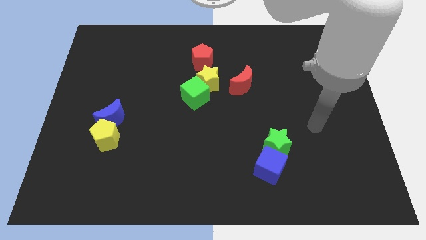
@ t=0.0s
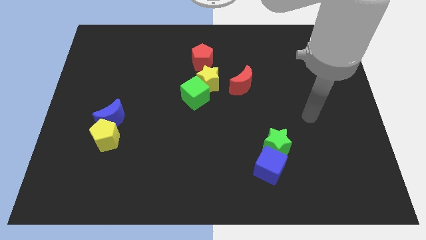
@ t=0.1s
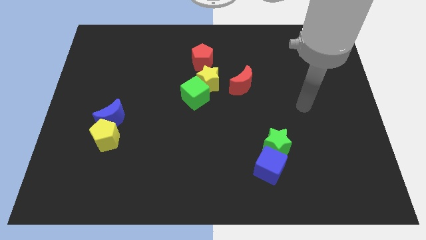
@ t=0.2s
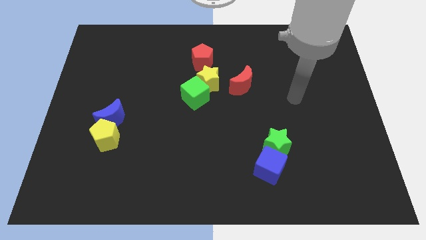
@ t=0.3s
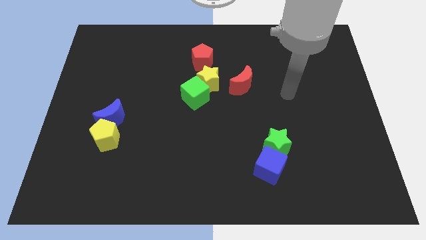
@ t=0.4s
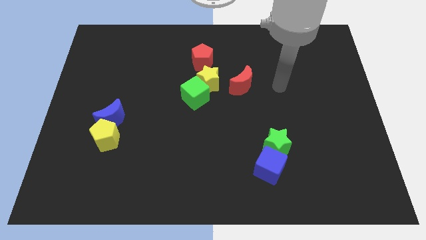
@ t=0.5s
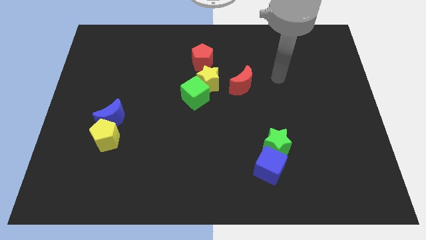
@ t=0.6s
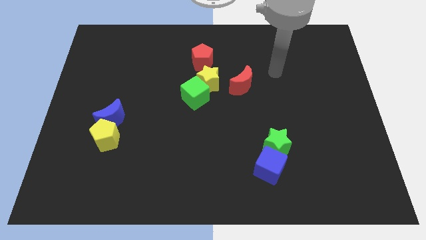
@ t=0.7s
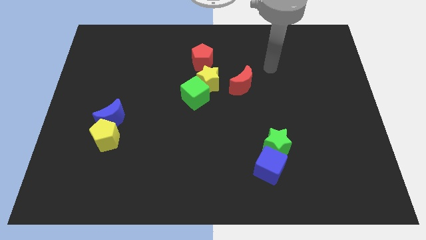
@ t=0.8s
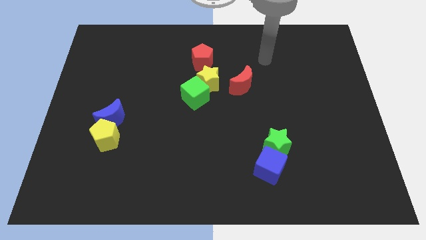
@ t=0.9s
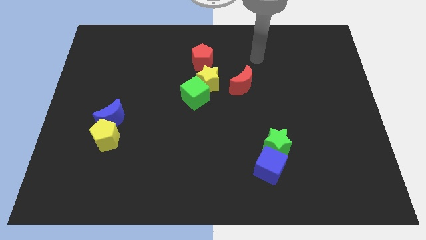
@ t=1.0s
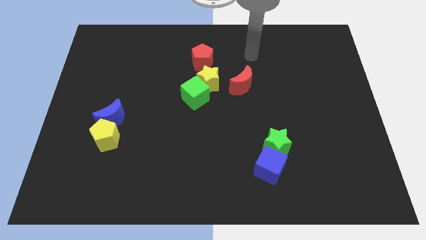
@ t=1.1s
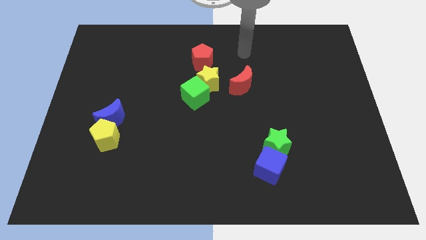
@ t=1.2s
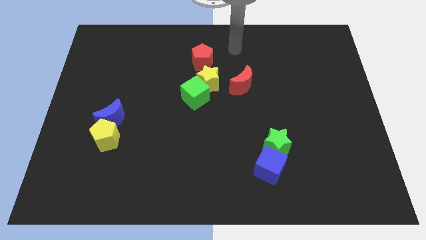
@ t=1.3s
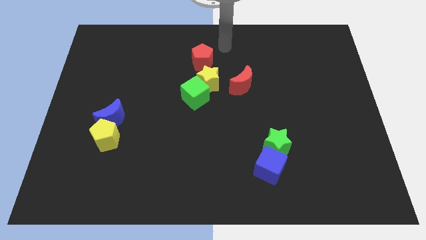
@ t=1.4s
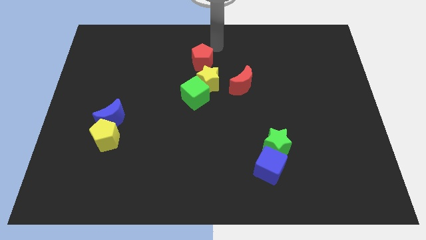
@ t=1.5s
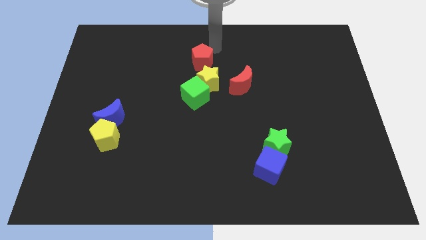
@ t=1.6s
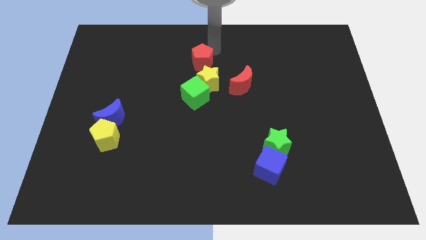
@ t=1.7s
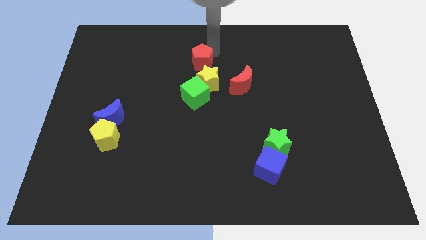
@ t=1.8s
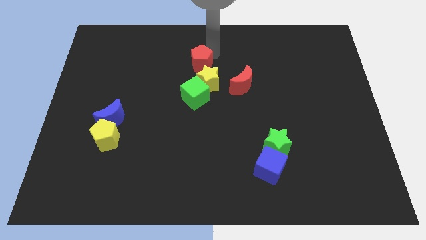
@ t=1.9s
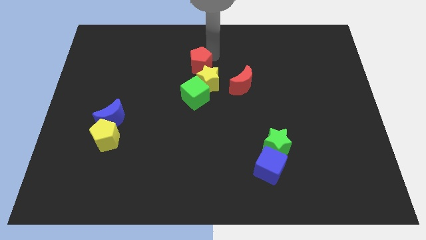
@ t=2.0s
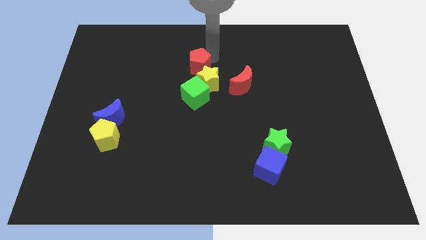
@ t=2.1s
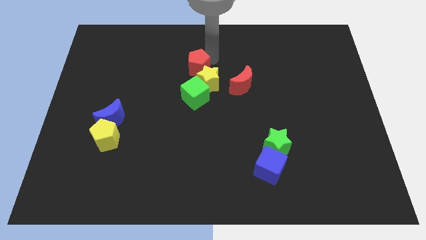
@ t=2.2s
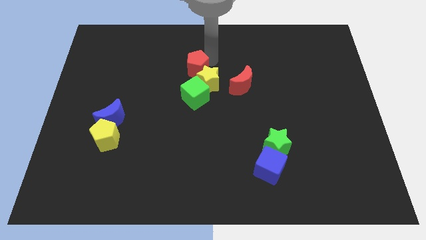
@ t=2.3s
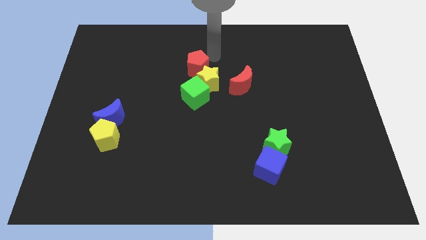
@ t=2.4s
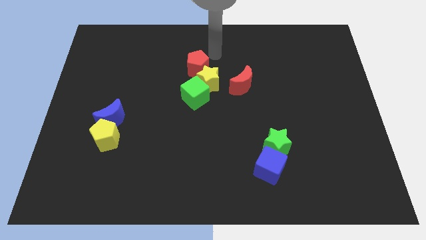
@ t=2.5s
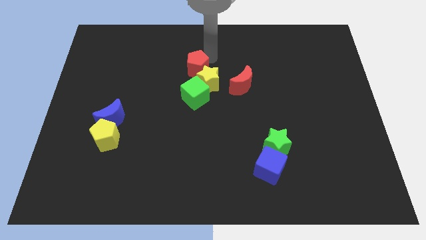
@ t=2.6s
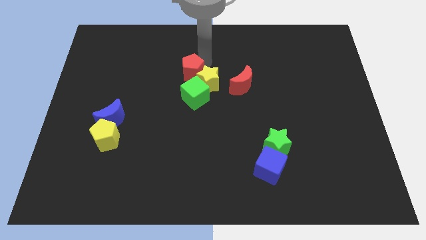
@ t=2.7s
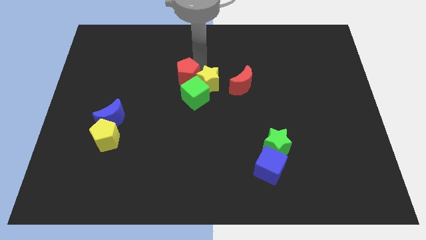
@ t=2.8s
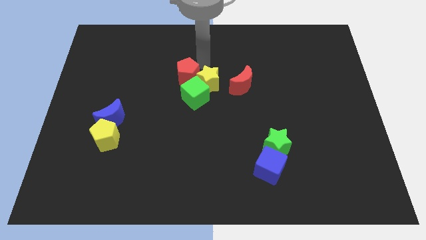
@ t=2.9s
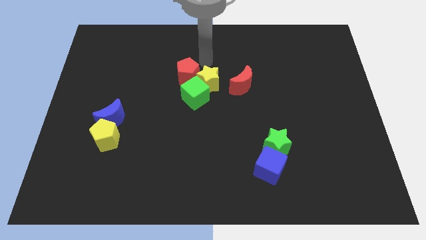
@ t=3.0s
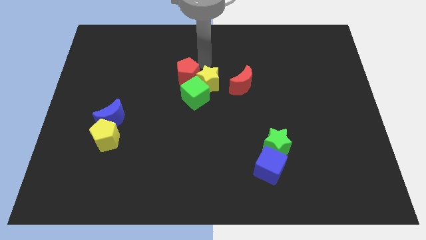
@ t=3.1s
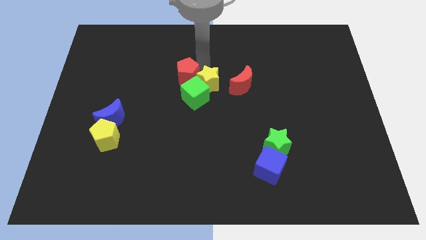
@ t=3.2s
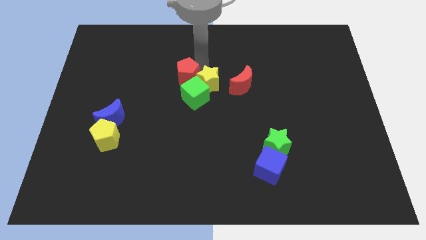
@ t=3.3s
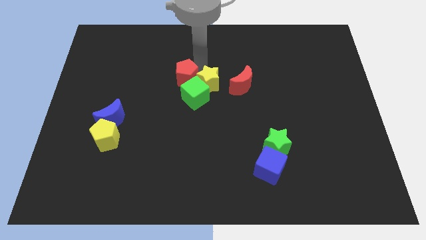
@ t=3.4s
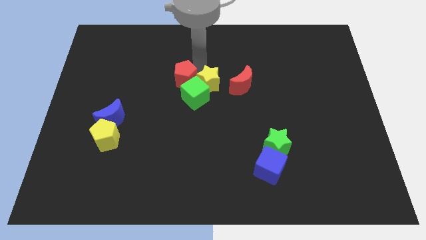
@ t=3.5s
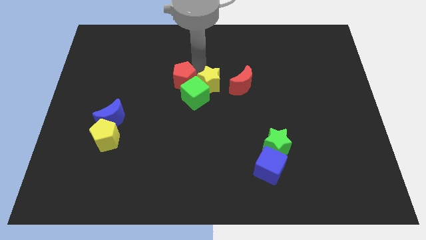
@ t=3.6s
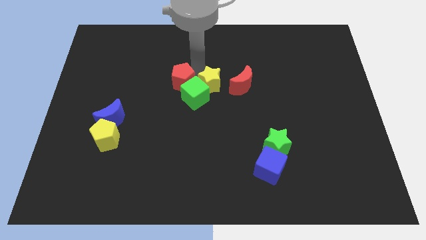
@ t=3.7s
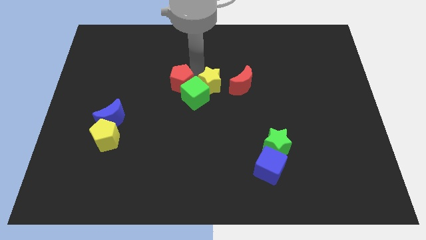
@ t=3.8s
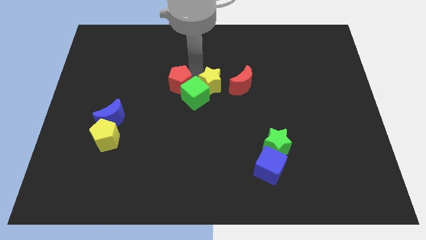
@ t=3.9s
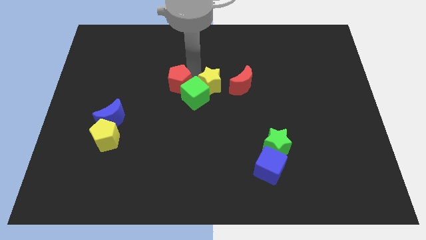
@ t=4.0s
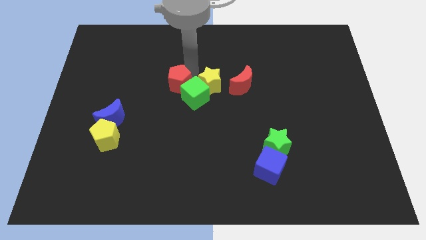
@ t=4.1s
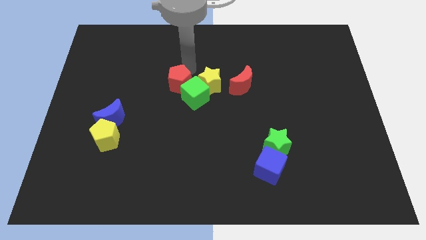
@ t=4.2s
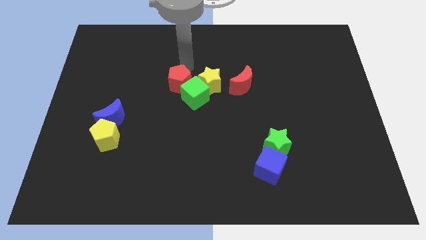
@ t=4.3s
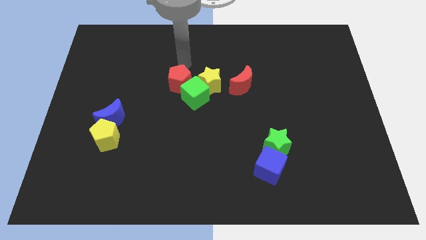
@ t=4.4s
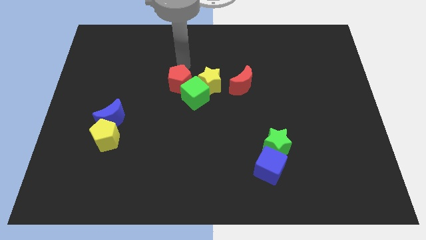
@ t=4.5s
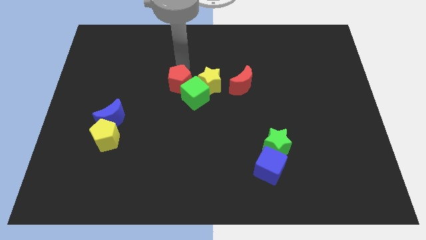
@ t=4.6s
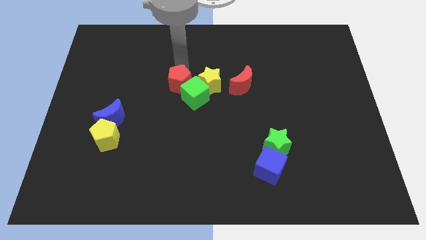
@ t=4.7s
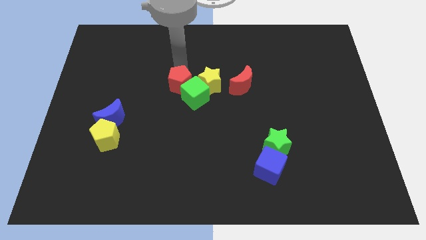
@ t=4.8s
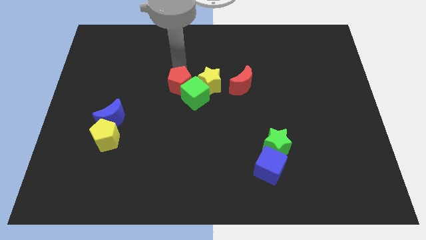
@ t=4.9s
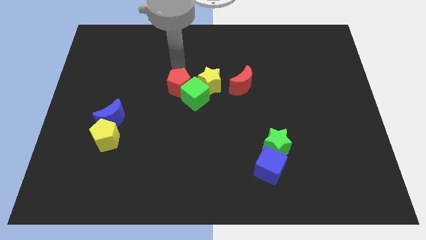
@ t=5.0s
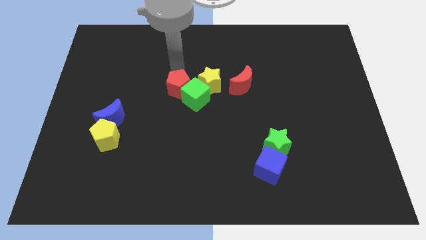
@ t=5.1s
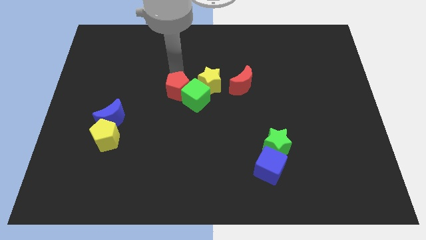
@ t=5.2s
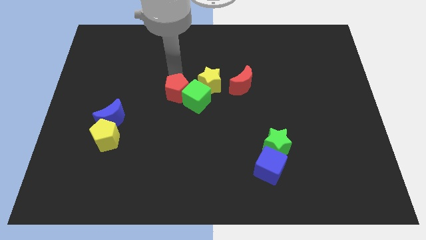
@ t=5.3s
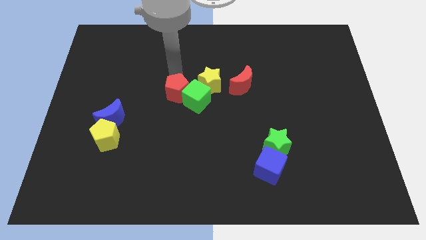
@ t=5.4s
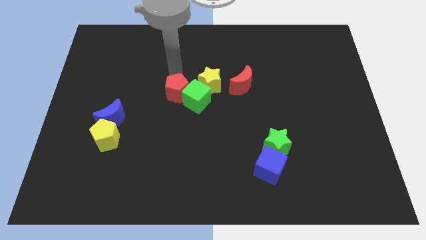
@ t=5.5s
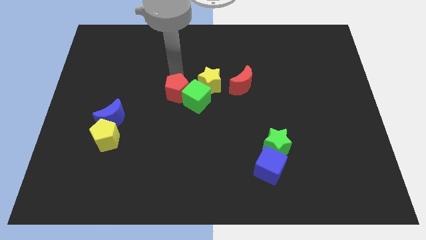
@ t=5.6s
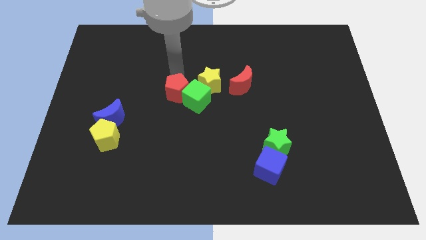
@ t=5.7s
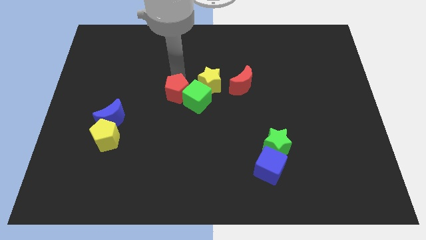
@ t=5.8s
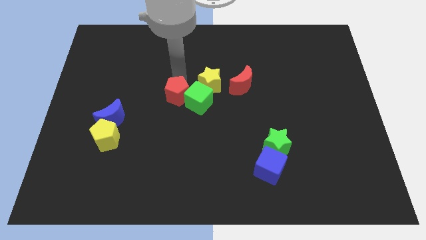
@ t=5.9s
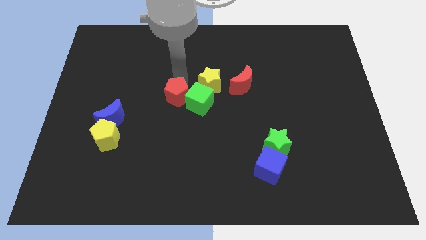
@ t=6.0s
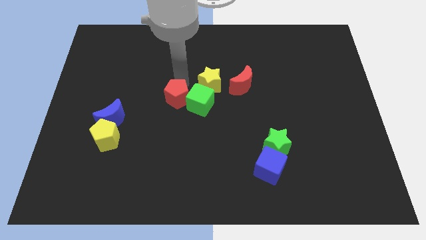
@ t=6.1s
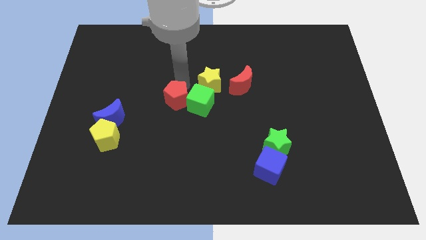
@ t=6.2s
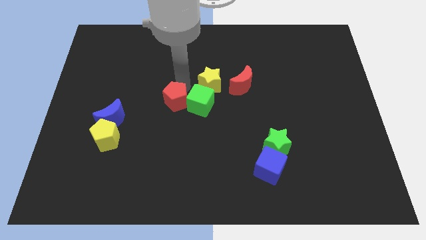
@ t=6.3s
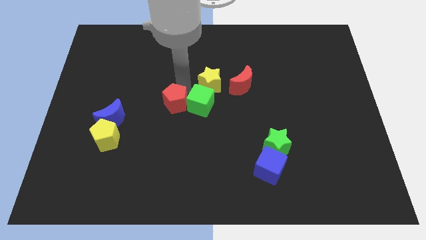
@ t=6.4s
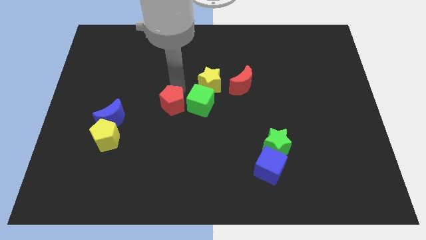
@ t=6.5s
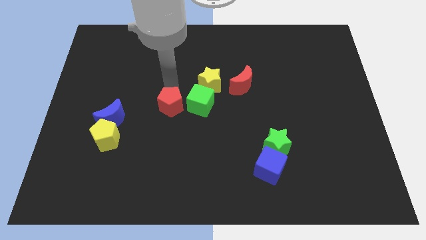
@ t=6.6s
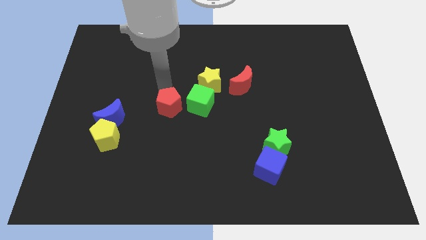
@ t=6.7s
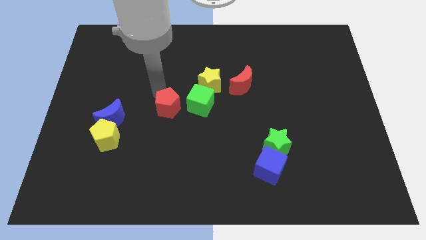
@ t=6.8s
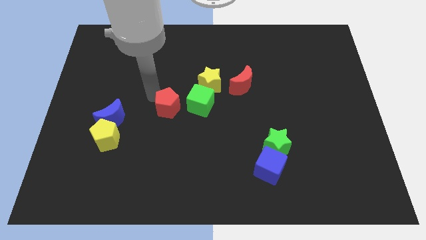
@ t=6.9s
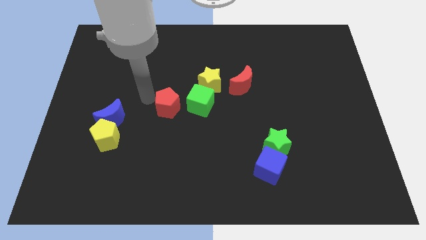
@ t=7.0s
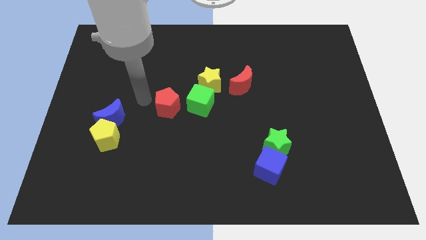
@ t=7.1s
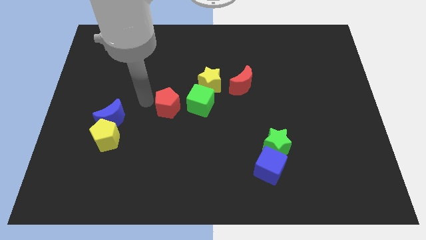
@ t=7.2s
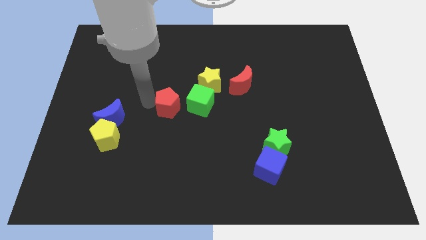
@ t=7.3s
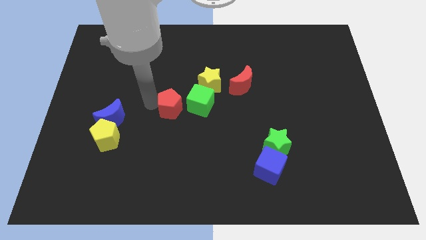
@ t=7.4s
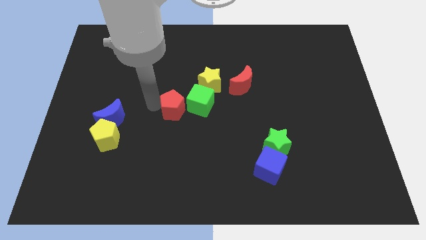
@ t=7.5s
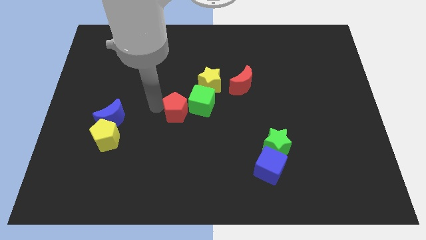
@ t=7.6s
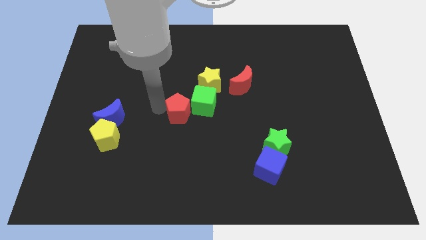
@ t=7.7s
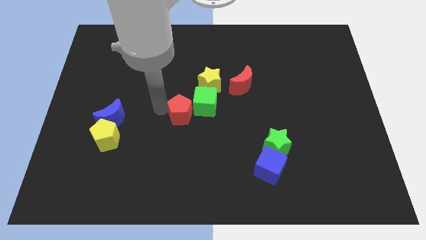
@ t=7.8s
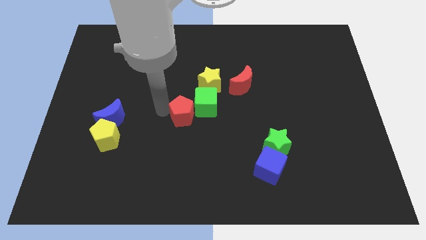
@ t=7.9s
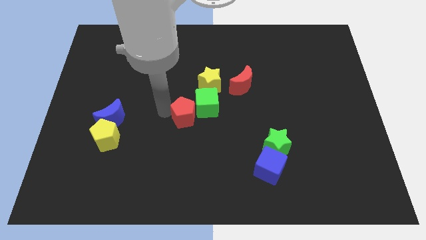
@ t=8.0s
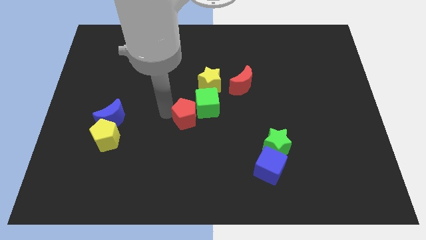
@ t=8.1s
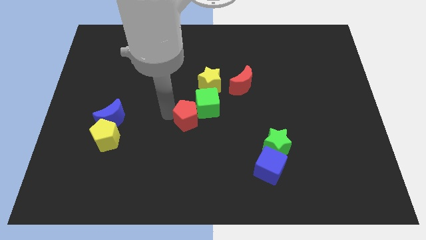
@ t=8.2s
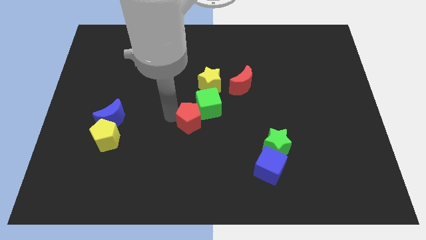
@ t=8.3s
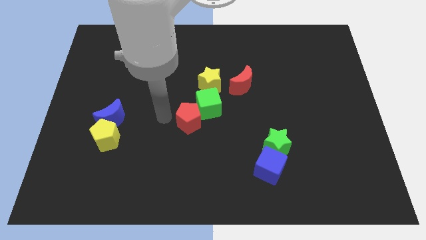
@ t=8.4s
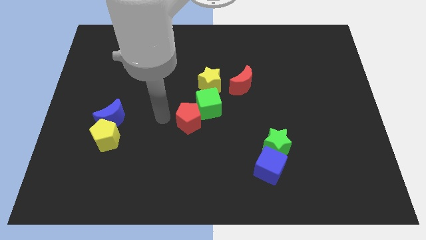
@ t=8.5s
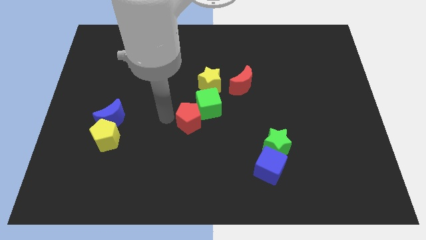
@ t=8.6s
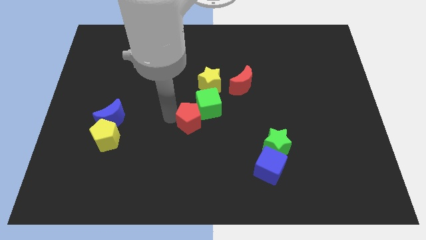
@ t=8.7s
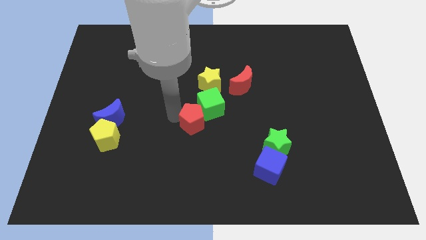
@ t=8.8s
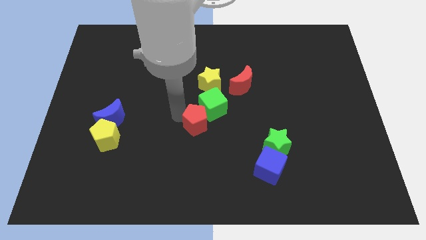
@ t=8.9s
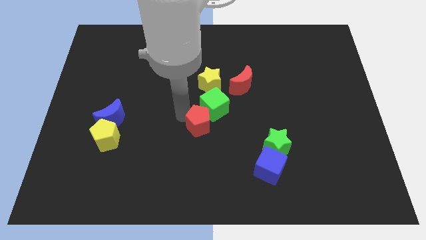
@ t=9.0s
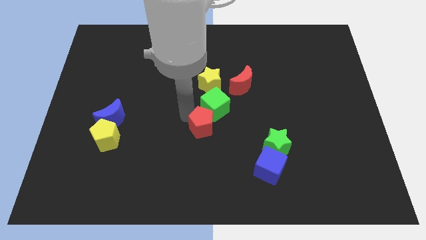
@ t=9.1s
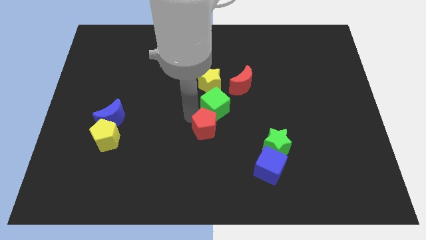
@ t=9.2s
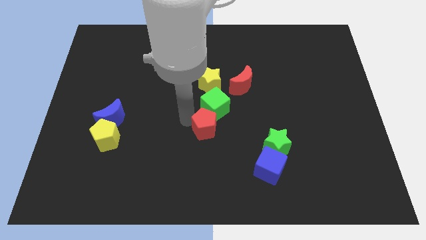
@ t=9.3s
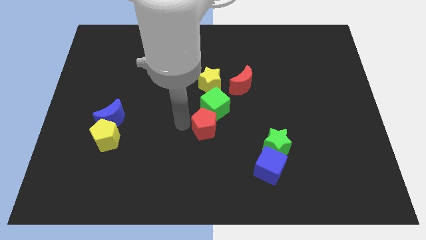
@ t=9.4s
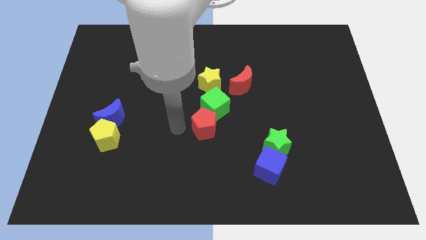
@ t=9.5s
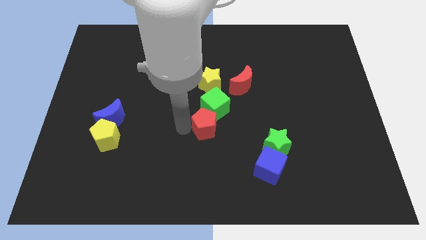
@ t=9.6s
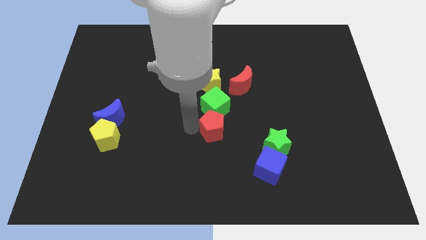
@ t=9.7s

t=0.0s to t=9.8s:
put the red pentagon to the bottom right of the green cube
